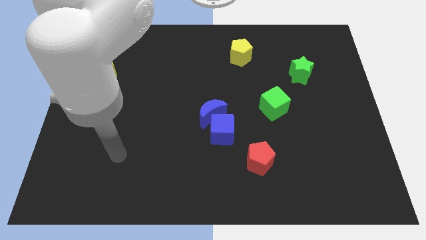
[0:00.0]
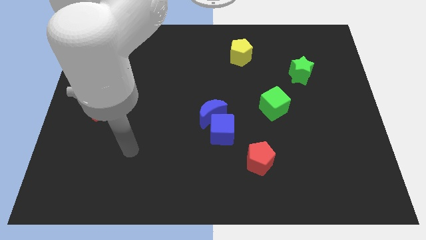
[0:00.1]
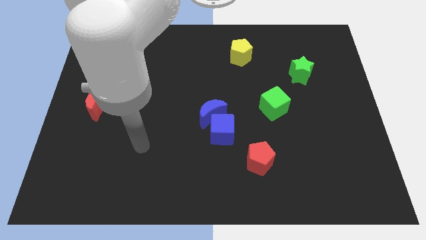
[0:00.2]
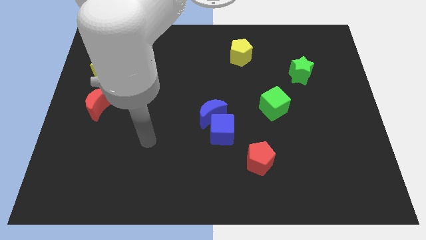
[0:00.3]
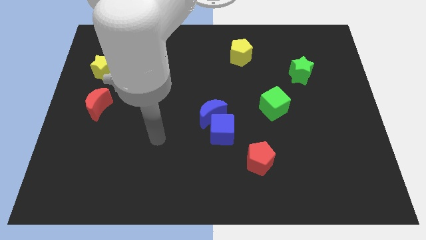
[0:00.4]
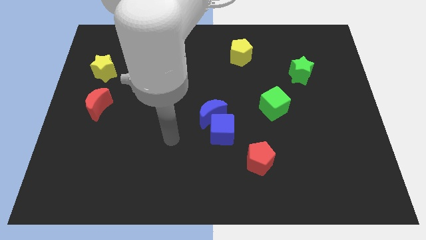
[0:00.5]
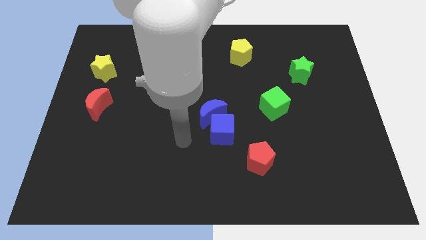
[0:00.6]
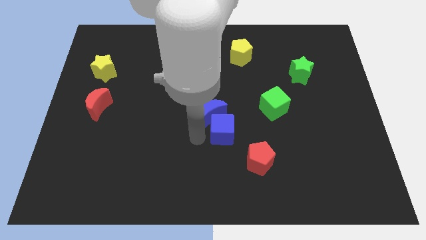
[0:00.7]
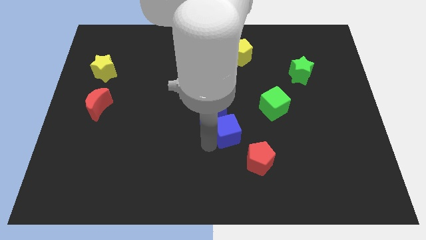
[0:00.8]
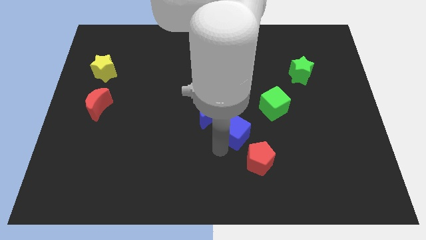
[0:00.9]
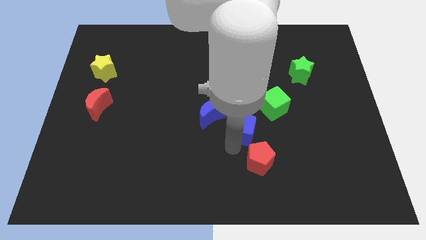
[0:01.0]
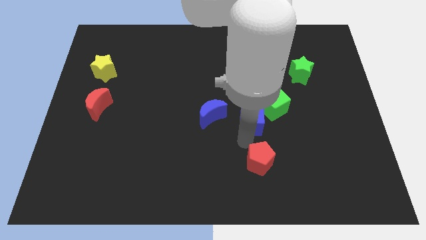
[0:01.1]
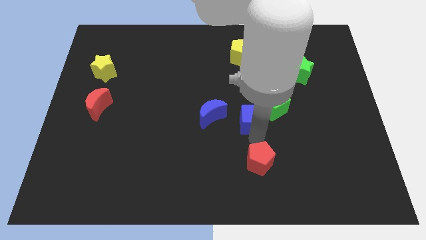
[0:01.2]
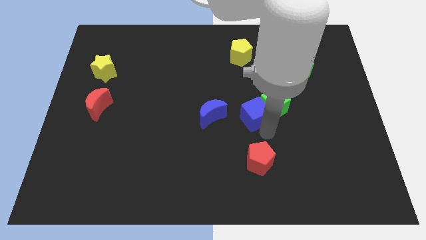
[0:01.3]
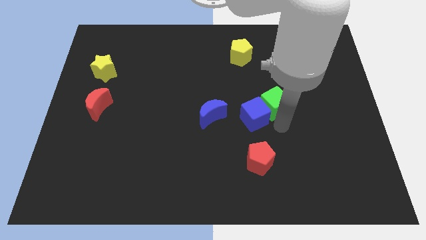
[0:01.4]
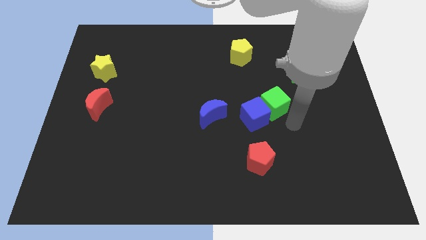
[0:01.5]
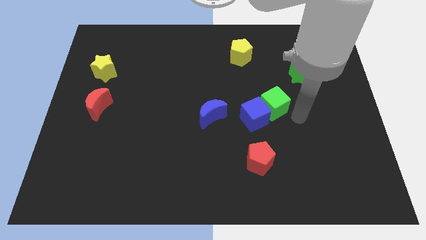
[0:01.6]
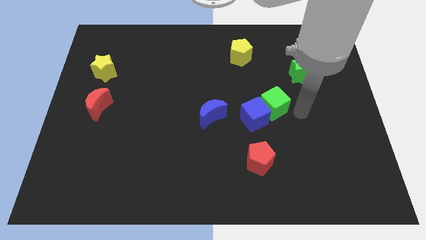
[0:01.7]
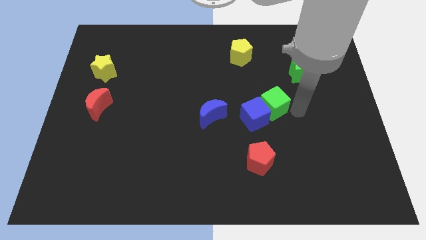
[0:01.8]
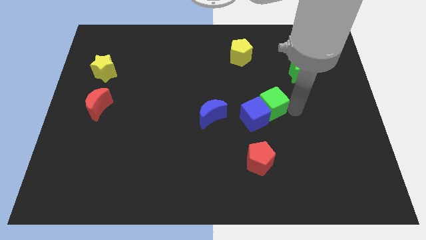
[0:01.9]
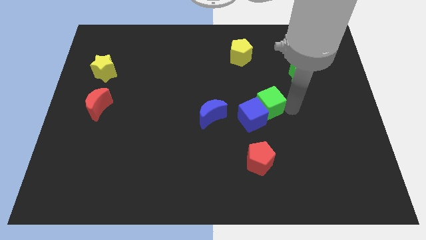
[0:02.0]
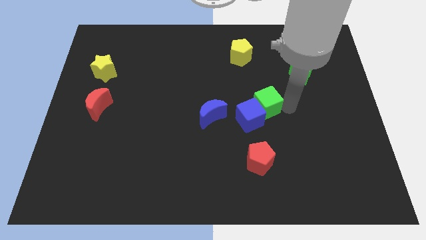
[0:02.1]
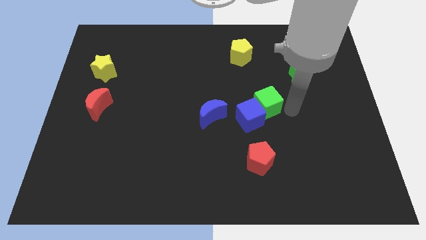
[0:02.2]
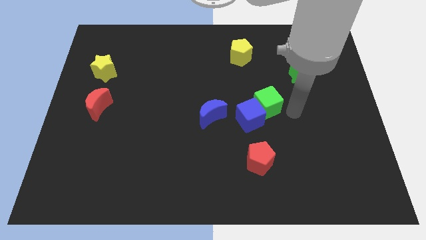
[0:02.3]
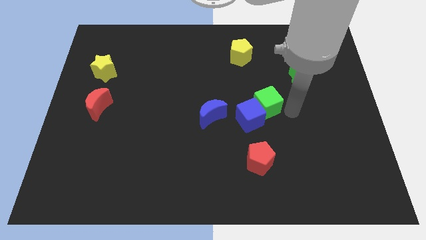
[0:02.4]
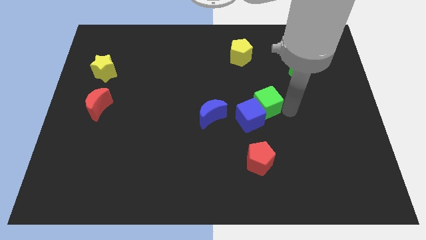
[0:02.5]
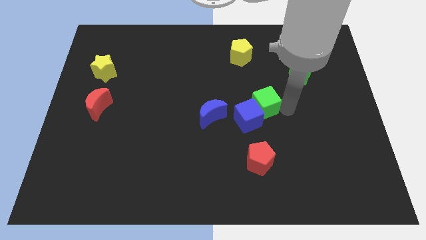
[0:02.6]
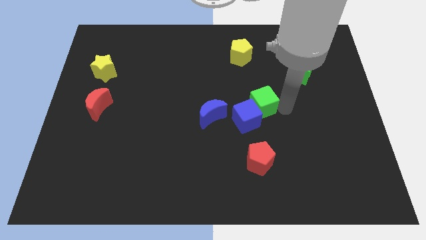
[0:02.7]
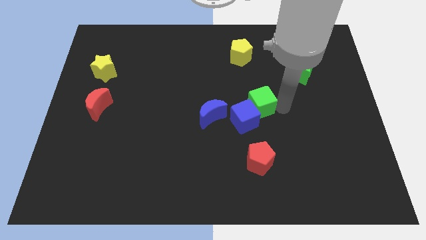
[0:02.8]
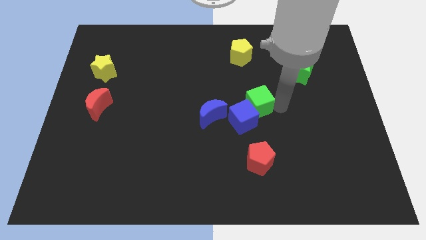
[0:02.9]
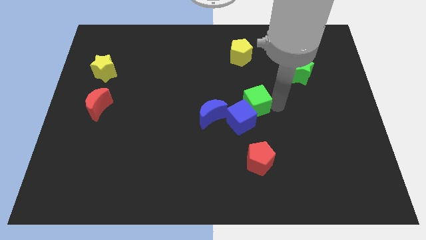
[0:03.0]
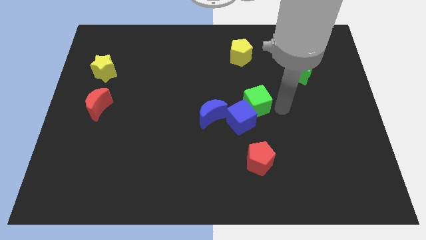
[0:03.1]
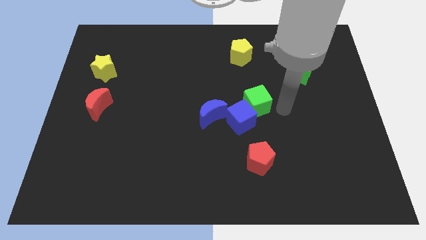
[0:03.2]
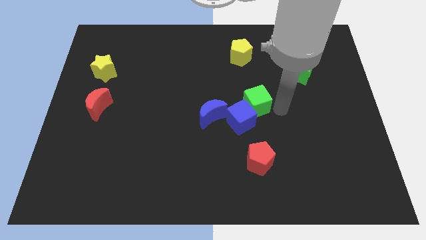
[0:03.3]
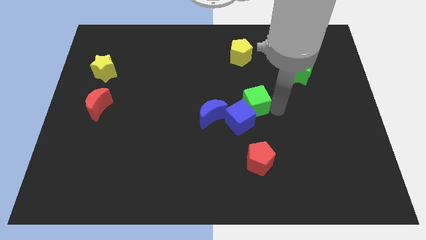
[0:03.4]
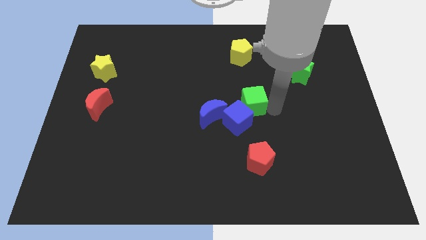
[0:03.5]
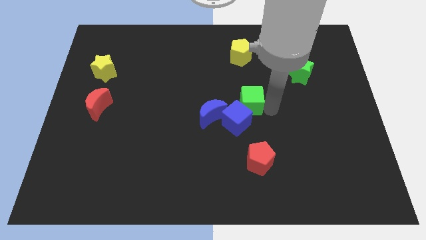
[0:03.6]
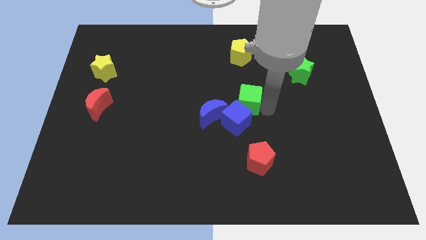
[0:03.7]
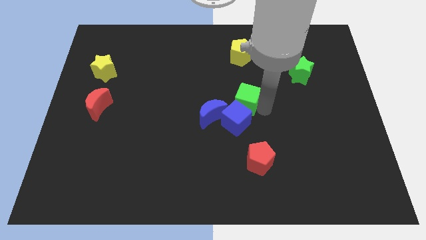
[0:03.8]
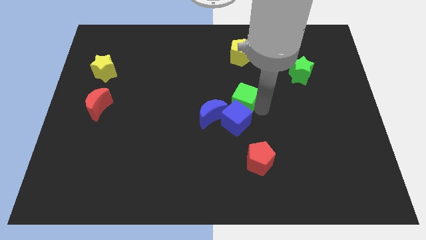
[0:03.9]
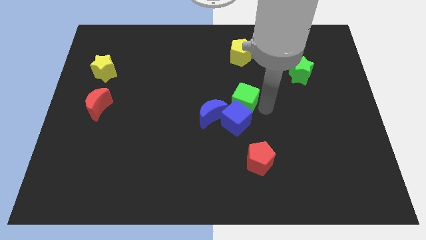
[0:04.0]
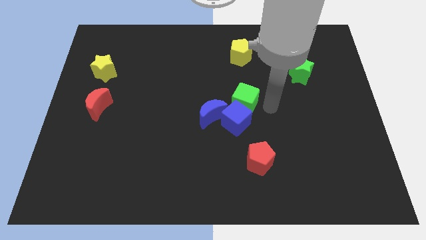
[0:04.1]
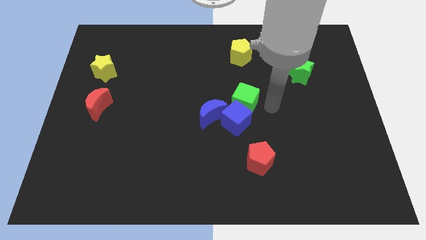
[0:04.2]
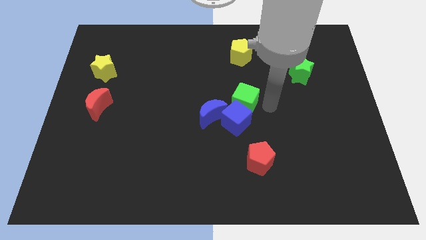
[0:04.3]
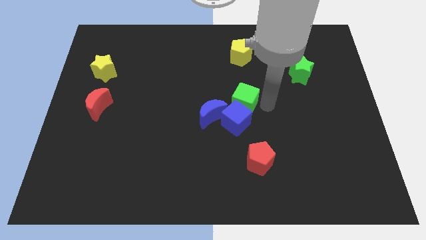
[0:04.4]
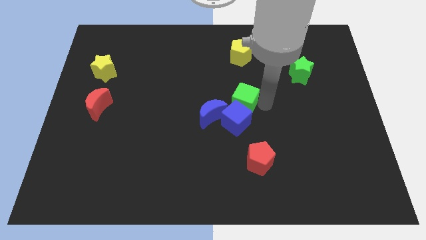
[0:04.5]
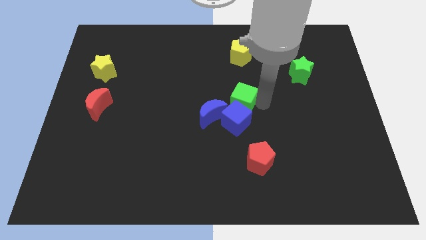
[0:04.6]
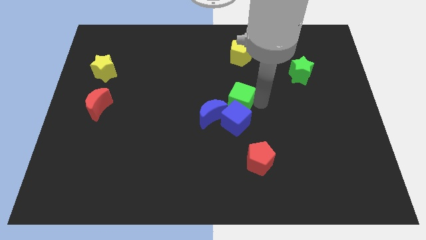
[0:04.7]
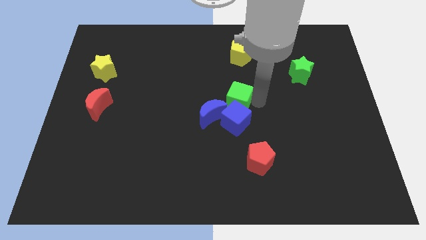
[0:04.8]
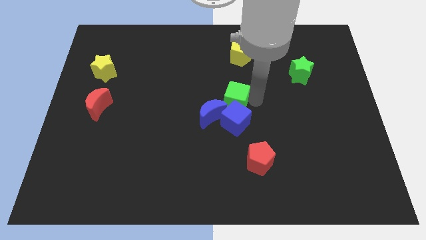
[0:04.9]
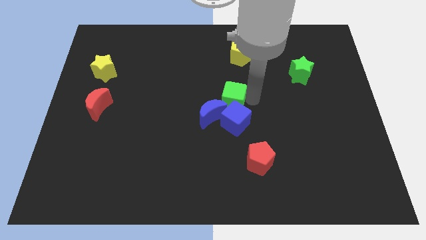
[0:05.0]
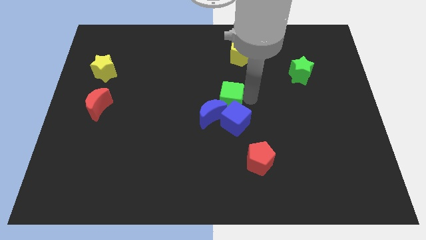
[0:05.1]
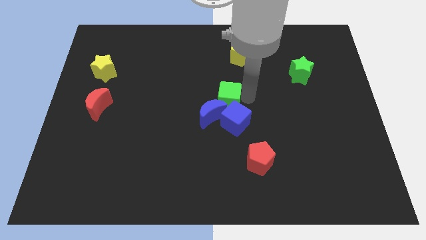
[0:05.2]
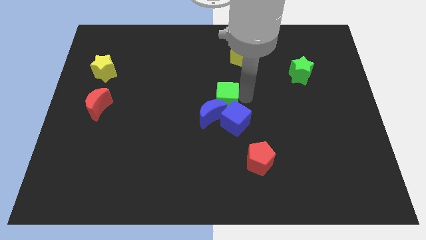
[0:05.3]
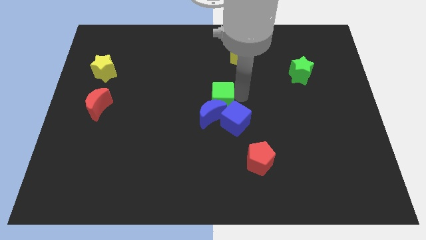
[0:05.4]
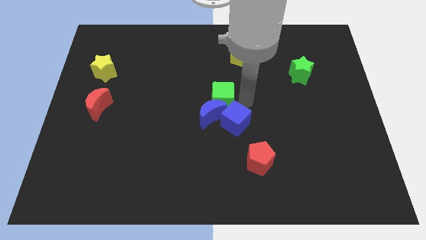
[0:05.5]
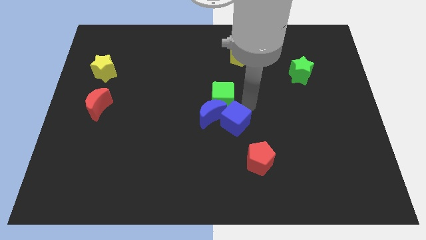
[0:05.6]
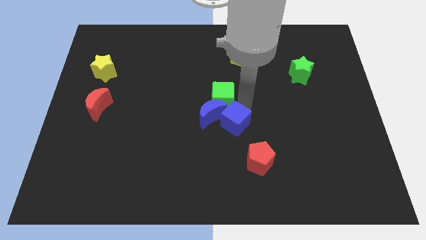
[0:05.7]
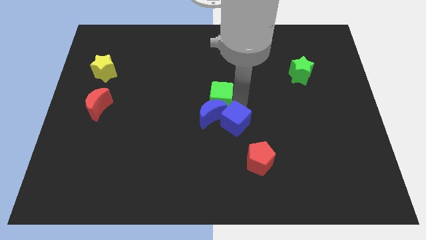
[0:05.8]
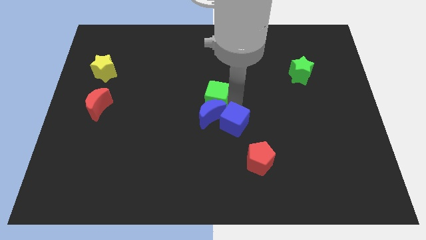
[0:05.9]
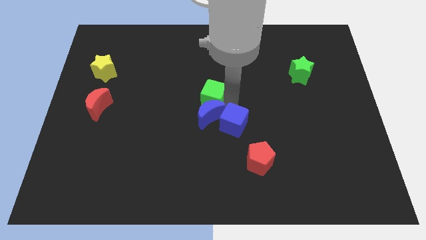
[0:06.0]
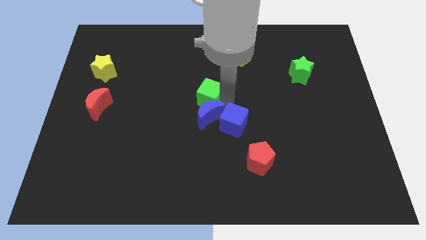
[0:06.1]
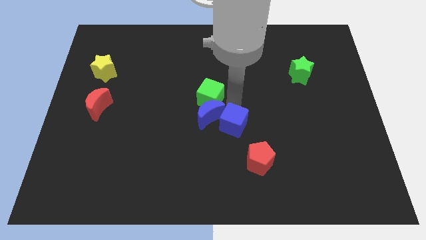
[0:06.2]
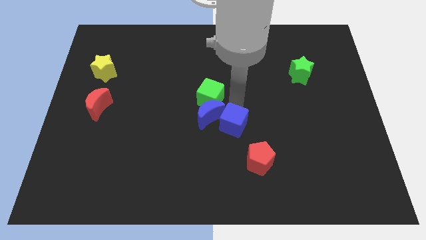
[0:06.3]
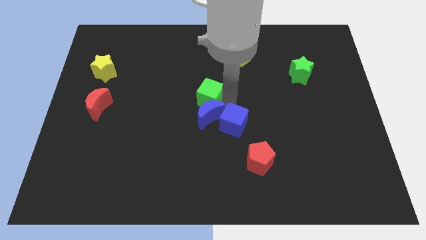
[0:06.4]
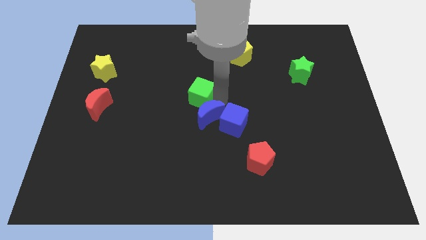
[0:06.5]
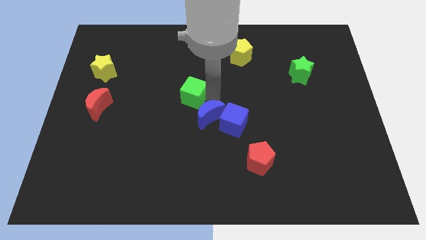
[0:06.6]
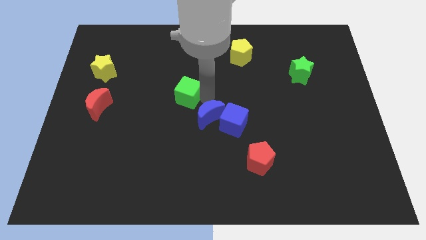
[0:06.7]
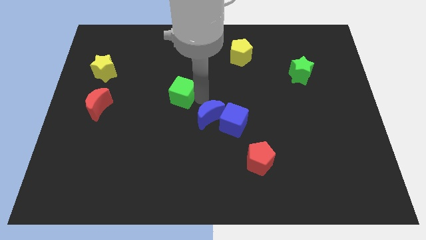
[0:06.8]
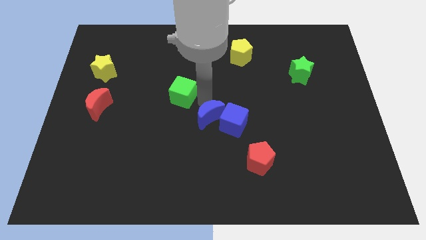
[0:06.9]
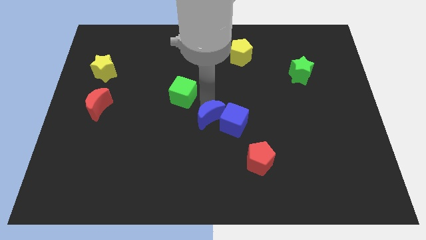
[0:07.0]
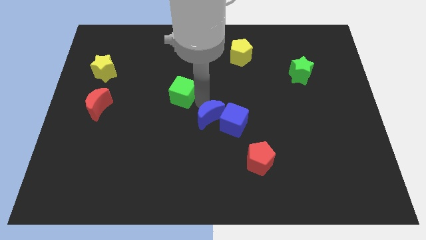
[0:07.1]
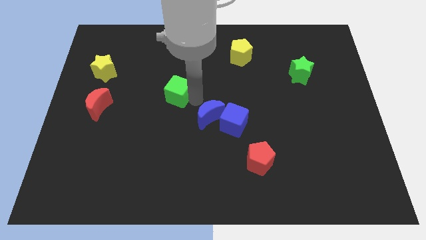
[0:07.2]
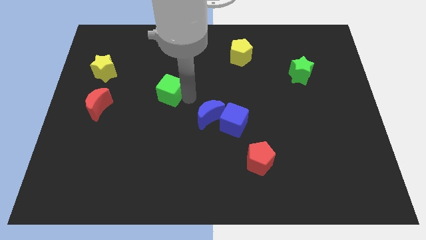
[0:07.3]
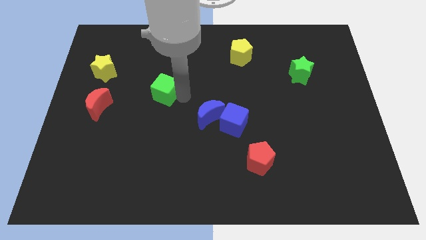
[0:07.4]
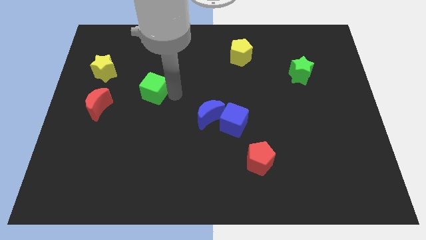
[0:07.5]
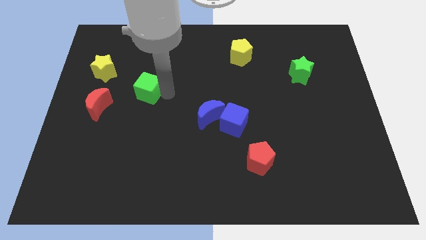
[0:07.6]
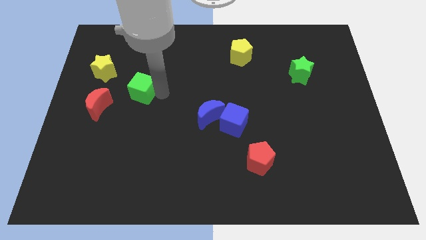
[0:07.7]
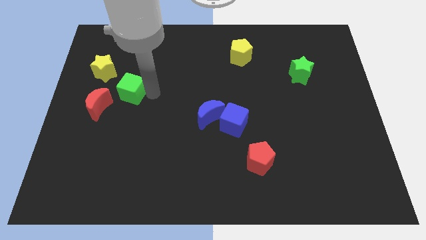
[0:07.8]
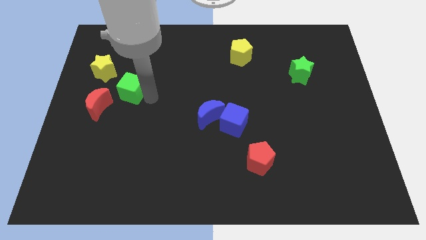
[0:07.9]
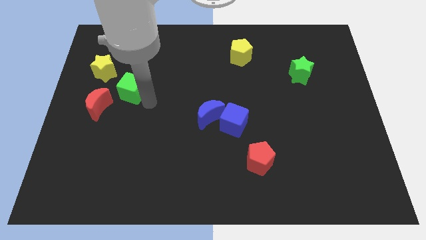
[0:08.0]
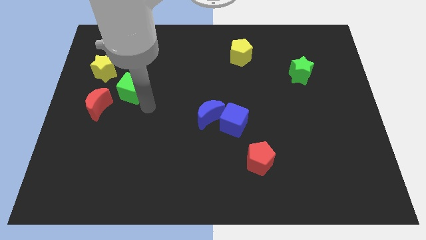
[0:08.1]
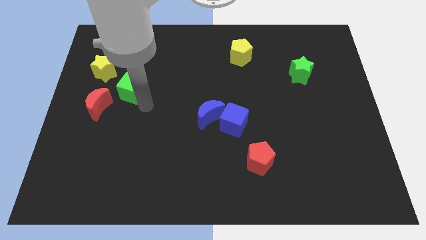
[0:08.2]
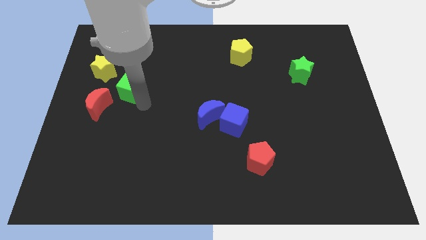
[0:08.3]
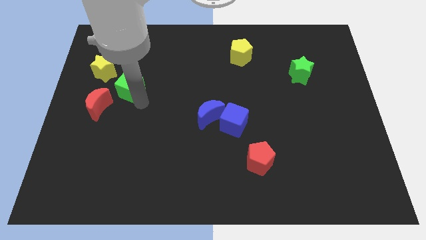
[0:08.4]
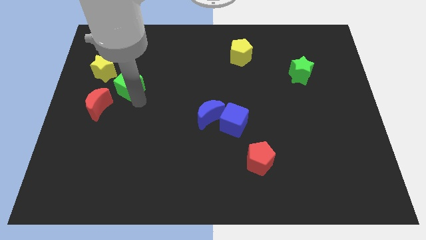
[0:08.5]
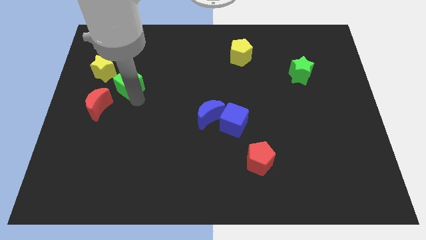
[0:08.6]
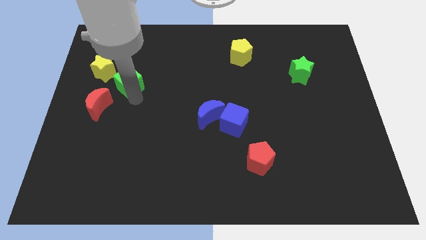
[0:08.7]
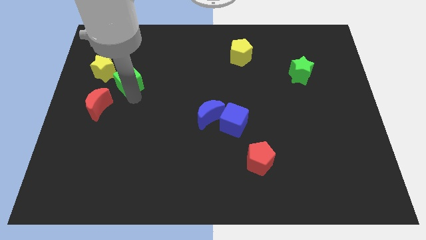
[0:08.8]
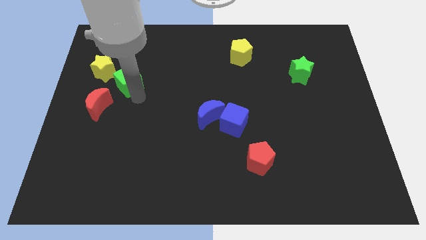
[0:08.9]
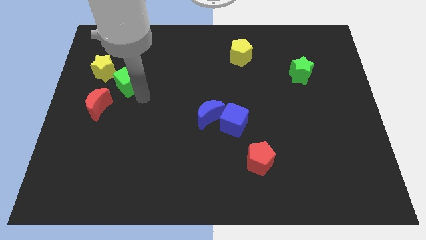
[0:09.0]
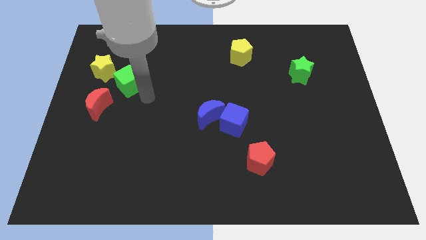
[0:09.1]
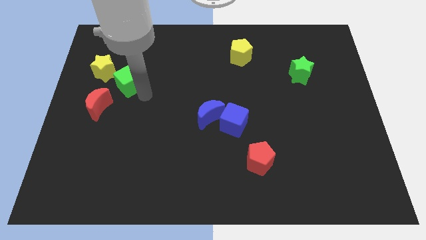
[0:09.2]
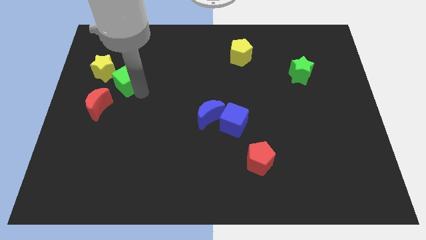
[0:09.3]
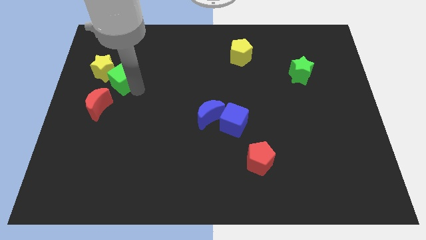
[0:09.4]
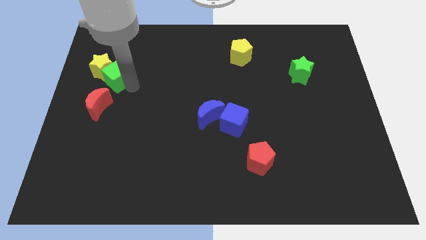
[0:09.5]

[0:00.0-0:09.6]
put the green cube towards the yellow star
